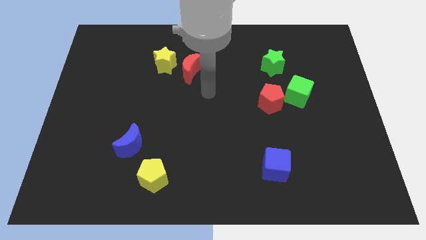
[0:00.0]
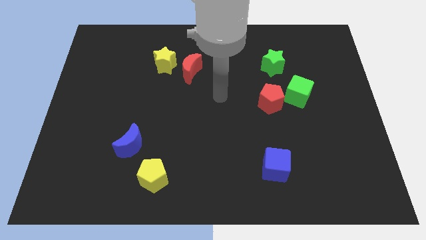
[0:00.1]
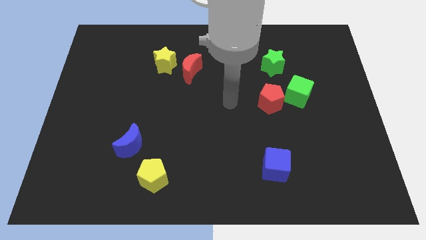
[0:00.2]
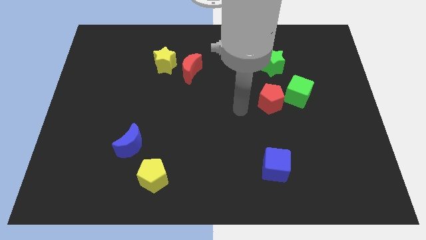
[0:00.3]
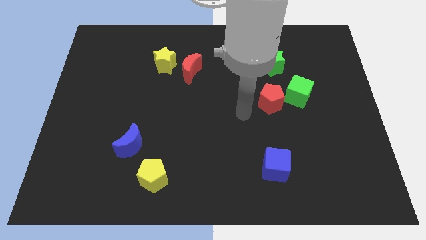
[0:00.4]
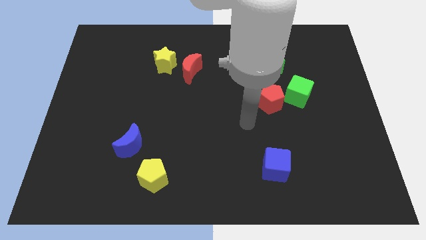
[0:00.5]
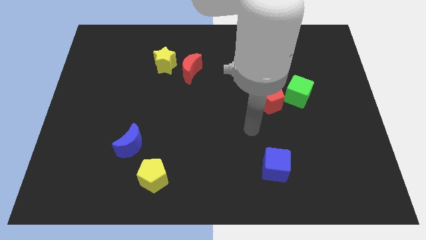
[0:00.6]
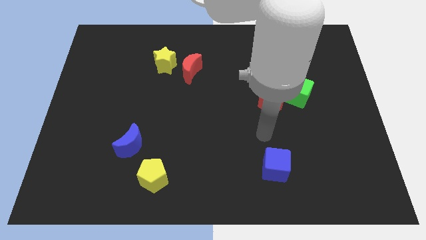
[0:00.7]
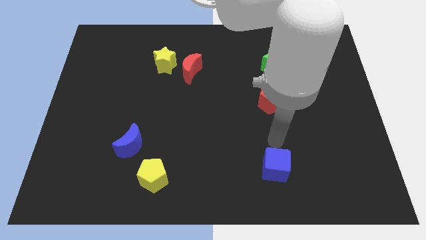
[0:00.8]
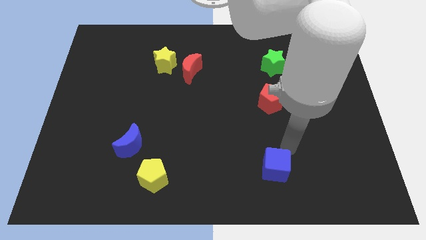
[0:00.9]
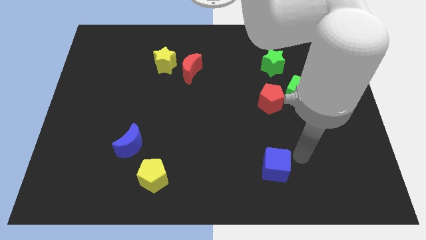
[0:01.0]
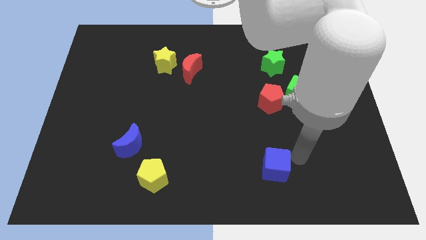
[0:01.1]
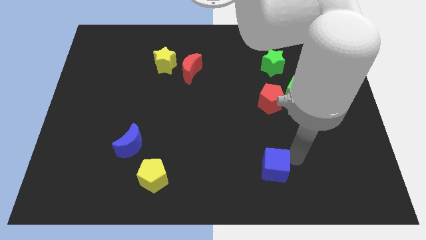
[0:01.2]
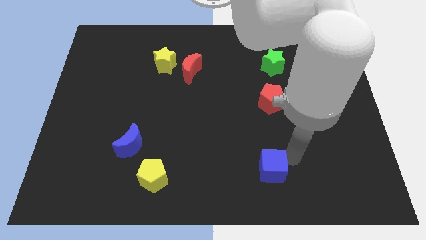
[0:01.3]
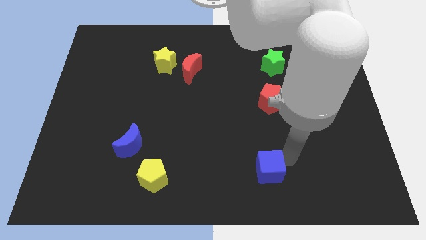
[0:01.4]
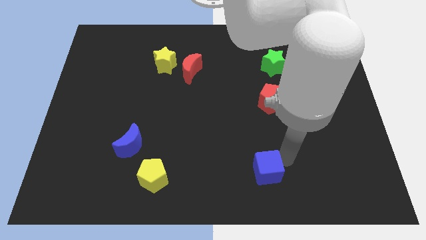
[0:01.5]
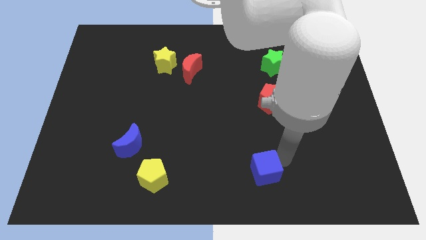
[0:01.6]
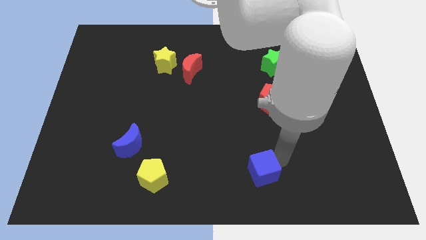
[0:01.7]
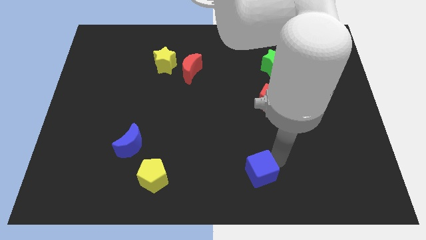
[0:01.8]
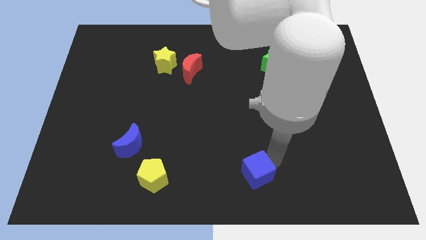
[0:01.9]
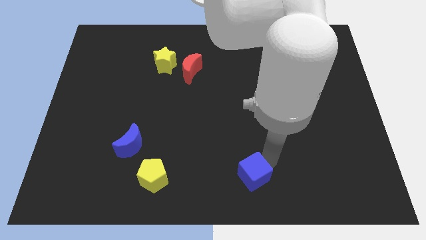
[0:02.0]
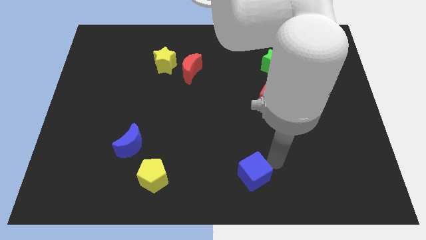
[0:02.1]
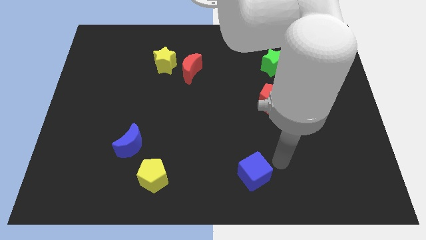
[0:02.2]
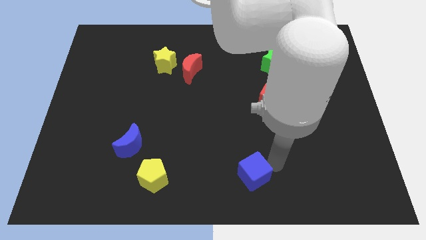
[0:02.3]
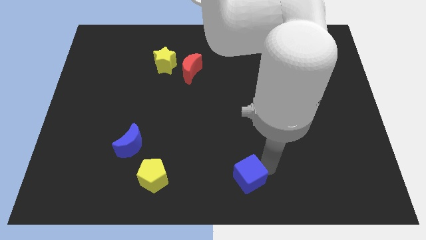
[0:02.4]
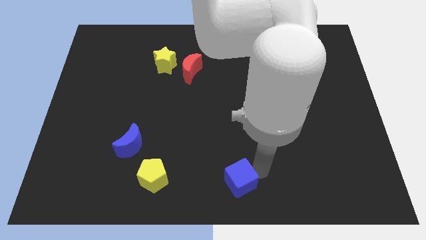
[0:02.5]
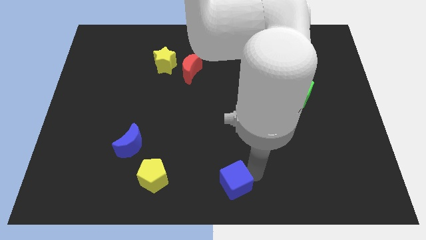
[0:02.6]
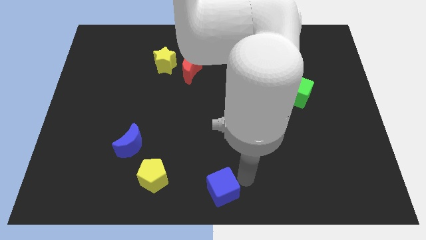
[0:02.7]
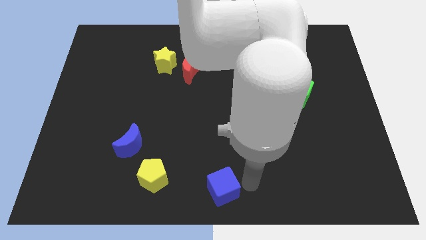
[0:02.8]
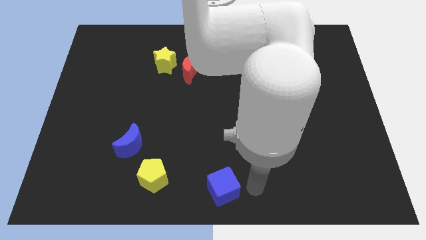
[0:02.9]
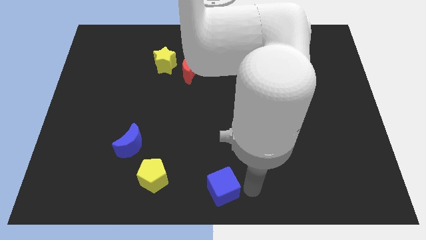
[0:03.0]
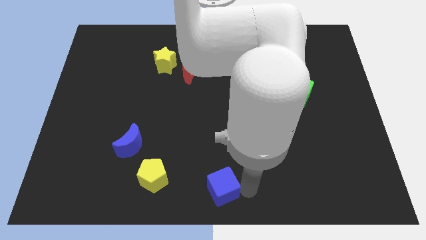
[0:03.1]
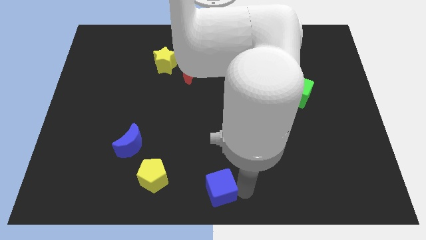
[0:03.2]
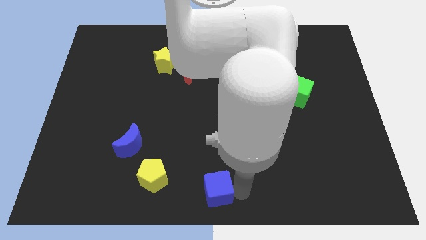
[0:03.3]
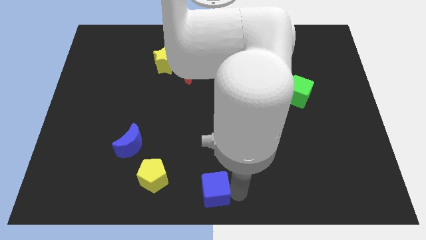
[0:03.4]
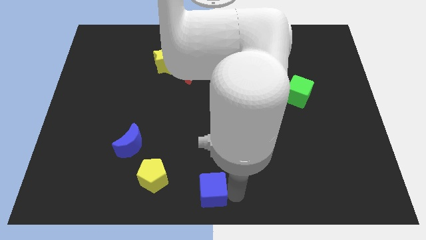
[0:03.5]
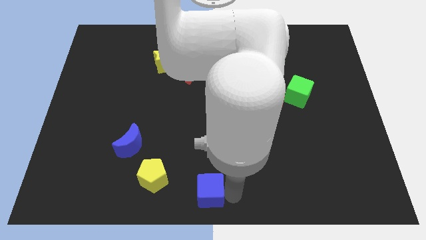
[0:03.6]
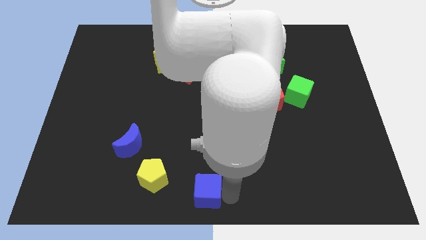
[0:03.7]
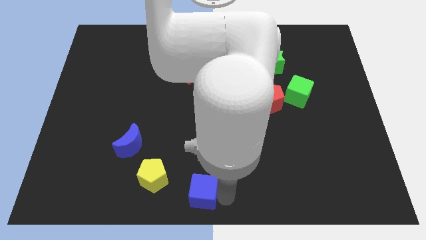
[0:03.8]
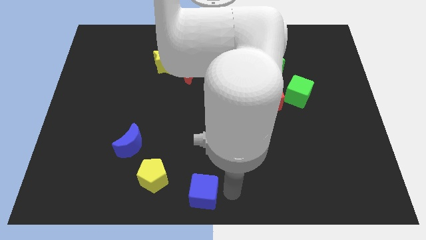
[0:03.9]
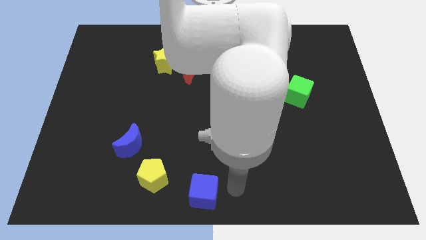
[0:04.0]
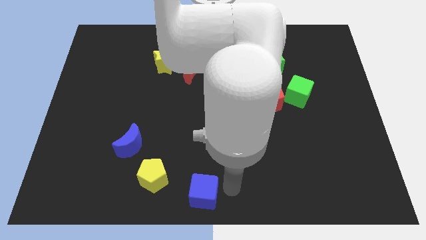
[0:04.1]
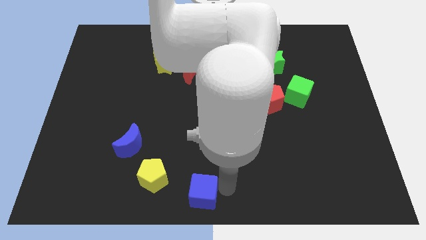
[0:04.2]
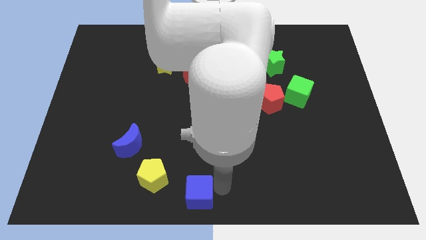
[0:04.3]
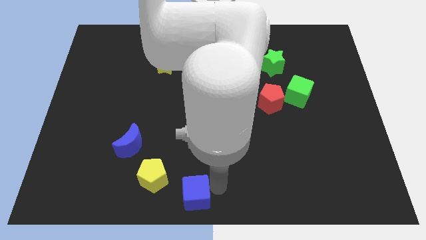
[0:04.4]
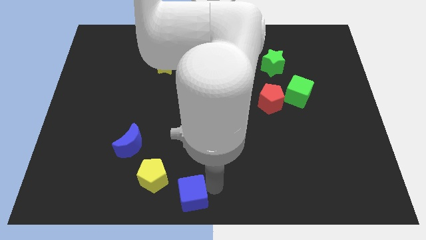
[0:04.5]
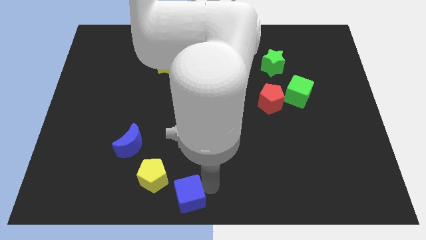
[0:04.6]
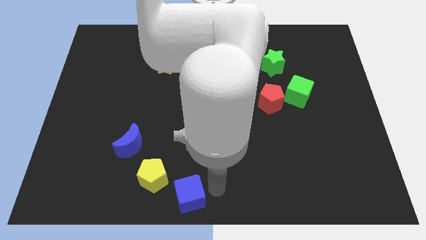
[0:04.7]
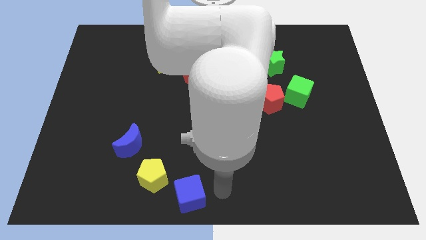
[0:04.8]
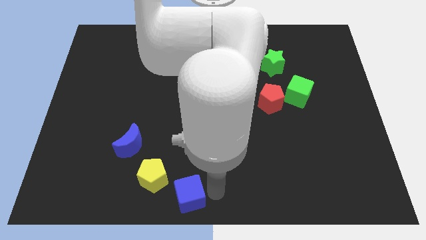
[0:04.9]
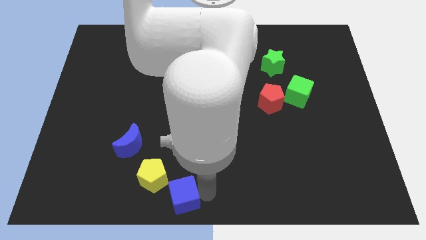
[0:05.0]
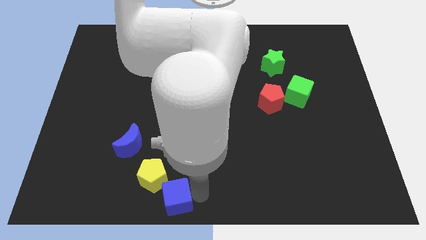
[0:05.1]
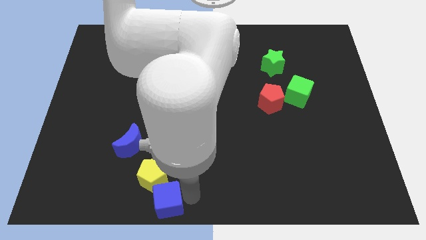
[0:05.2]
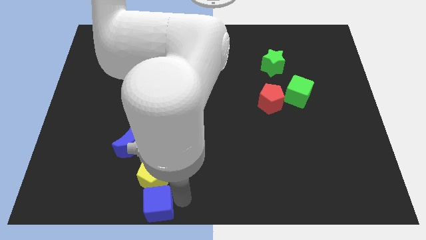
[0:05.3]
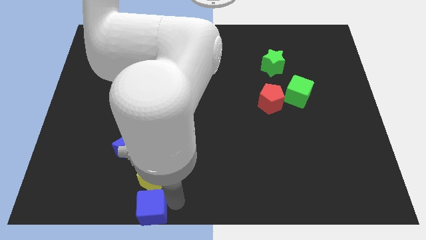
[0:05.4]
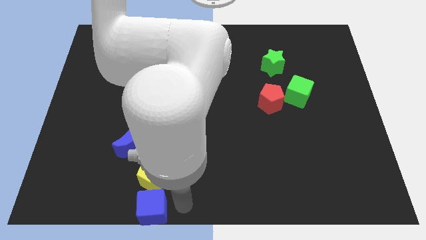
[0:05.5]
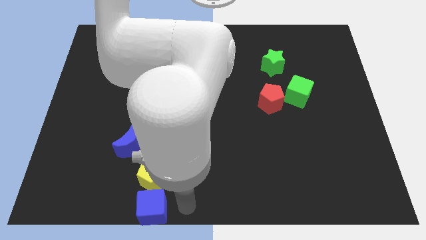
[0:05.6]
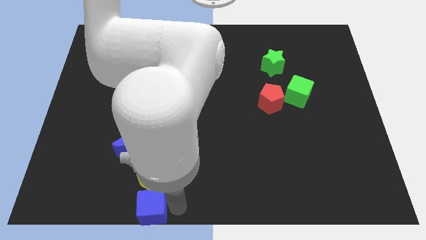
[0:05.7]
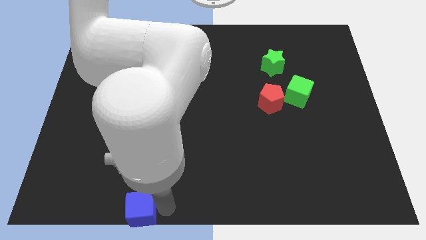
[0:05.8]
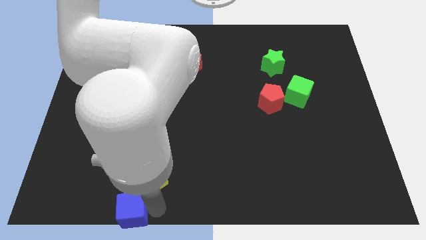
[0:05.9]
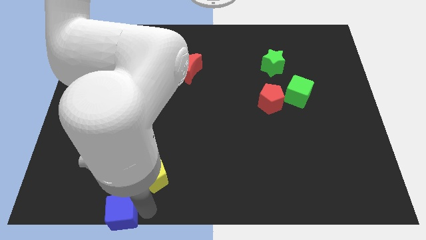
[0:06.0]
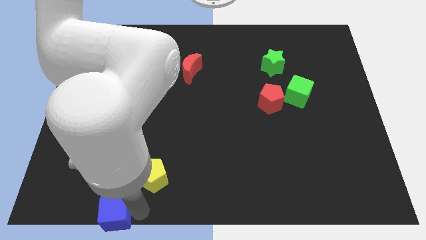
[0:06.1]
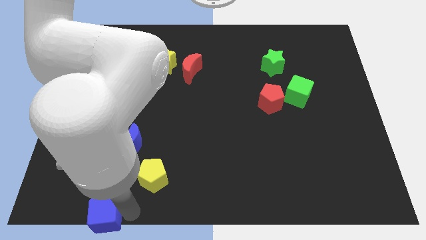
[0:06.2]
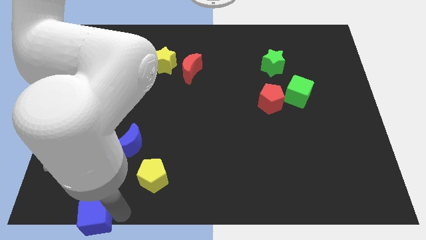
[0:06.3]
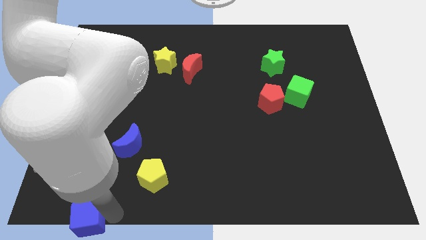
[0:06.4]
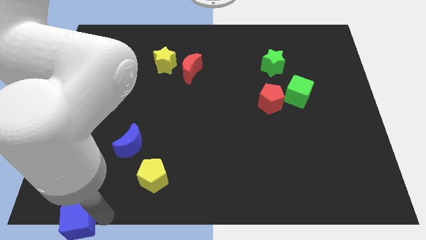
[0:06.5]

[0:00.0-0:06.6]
slide the blue cube to the lower left corner

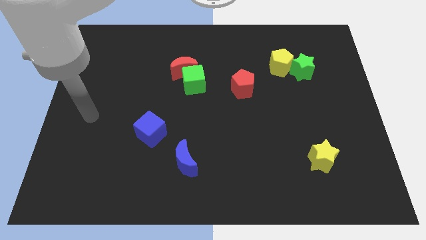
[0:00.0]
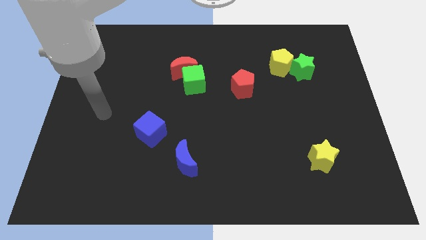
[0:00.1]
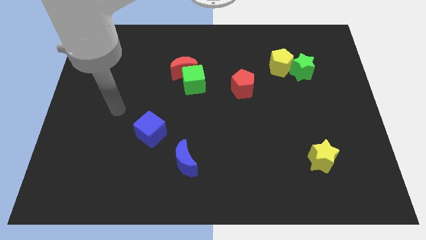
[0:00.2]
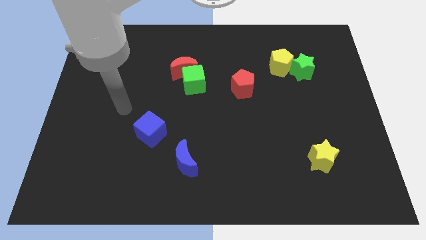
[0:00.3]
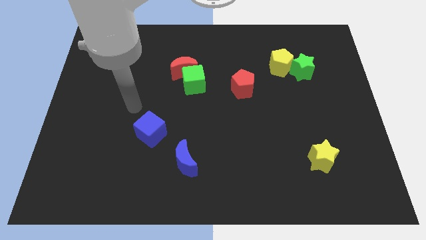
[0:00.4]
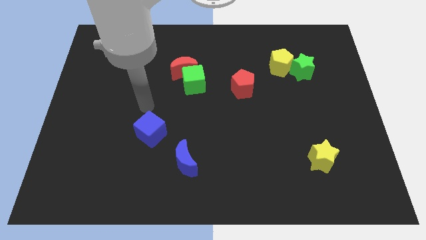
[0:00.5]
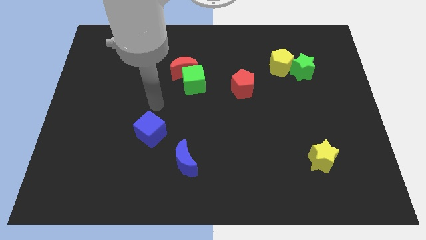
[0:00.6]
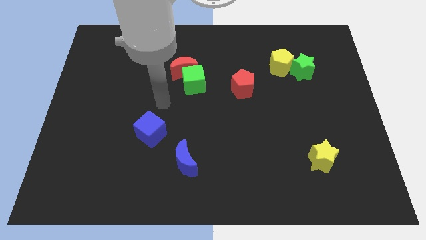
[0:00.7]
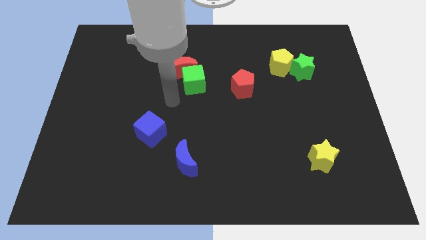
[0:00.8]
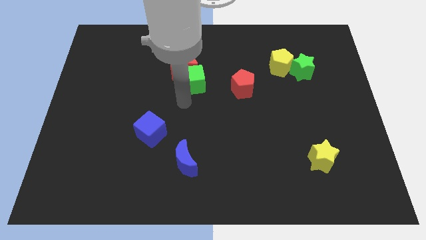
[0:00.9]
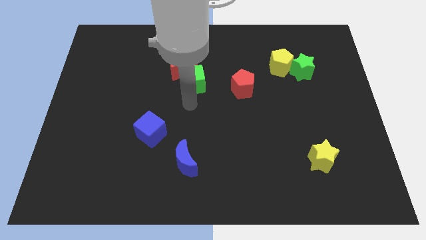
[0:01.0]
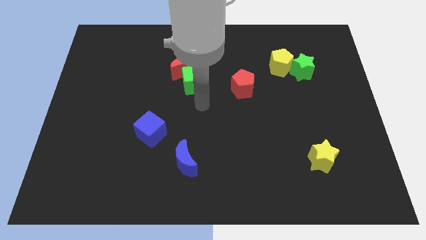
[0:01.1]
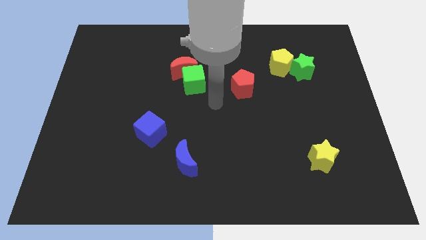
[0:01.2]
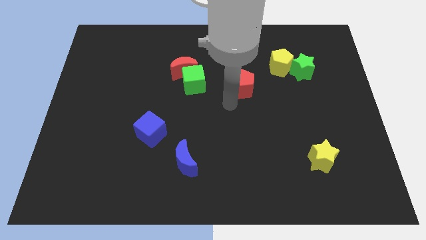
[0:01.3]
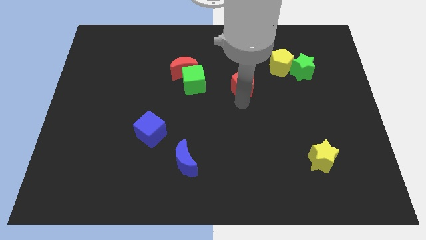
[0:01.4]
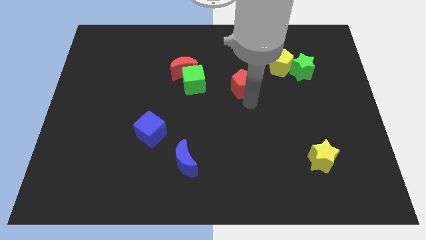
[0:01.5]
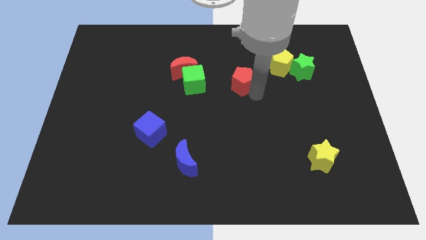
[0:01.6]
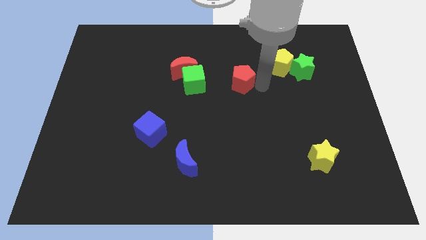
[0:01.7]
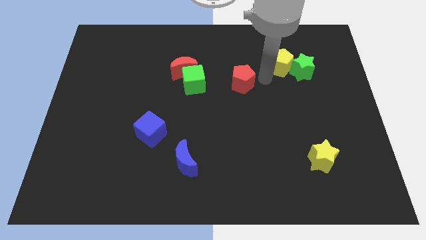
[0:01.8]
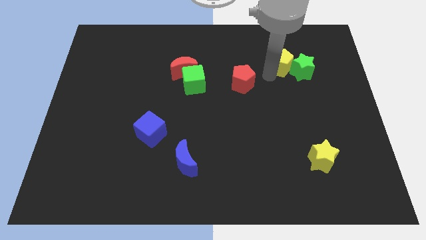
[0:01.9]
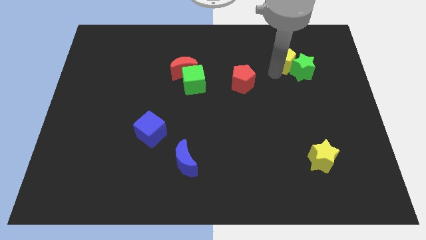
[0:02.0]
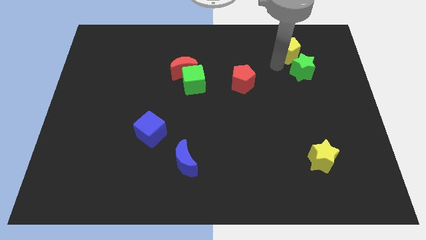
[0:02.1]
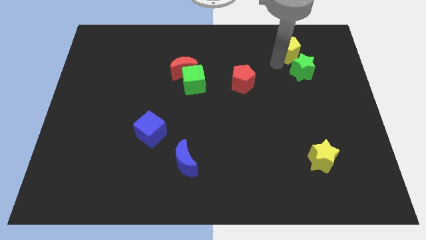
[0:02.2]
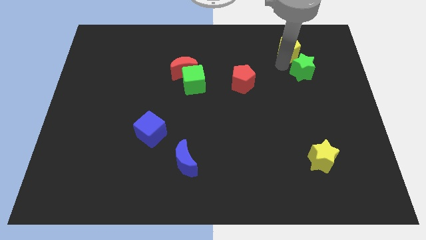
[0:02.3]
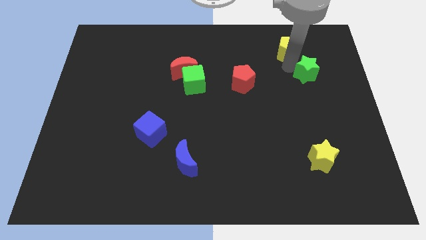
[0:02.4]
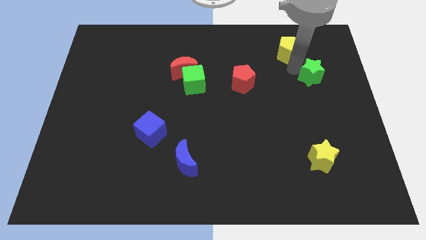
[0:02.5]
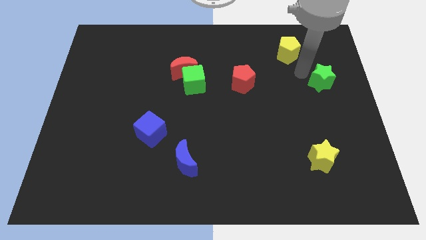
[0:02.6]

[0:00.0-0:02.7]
slide the green star to the center right
